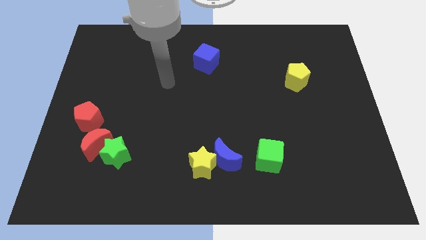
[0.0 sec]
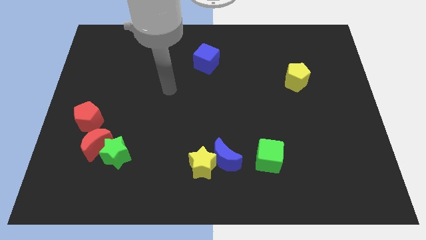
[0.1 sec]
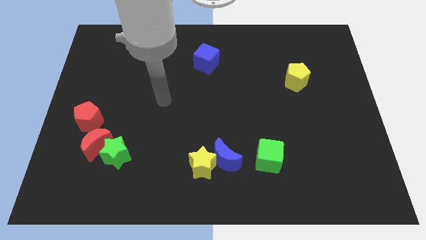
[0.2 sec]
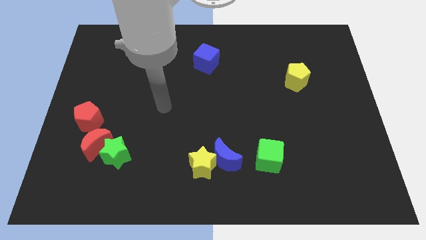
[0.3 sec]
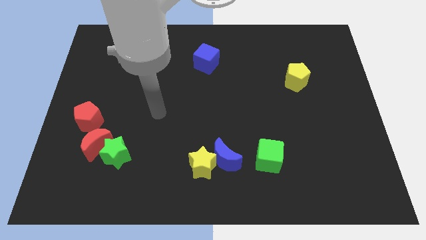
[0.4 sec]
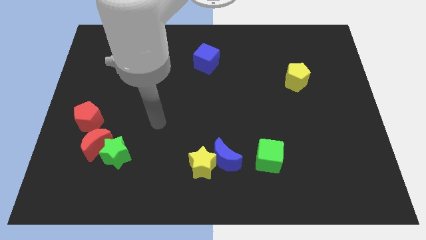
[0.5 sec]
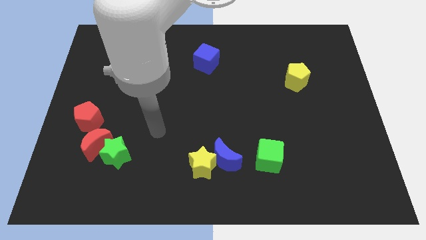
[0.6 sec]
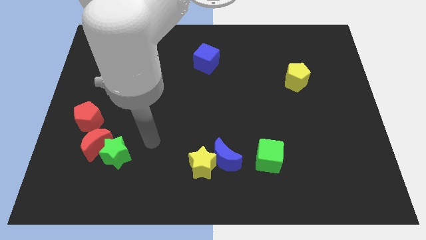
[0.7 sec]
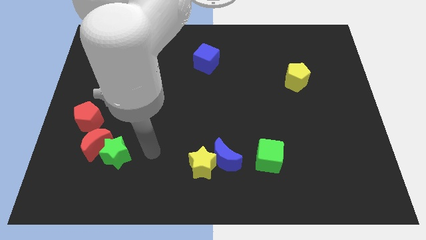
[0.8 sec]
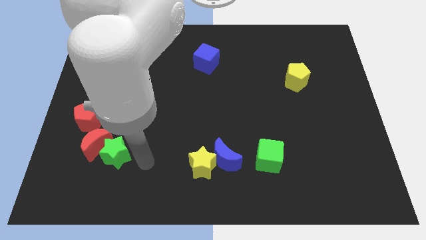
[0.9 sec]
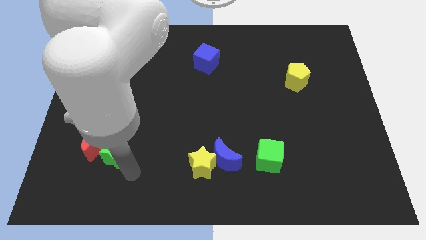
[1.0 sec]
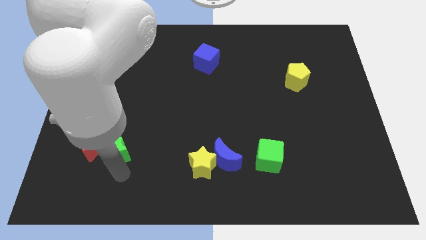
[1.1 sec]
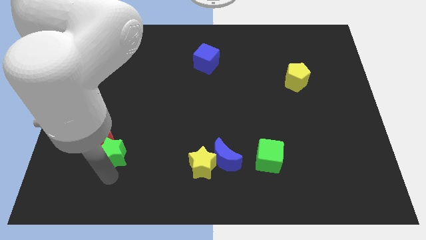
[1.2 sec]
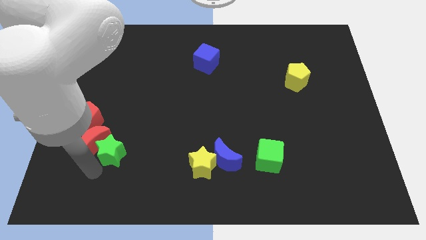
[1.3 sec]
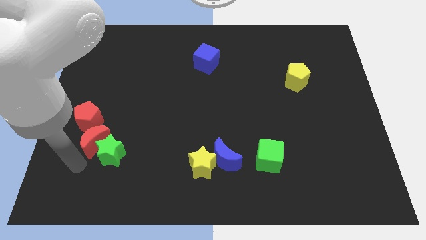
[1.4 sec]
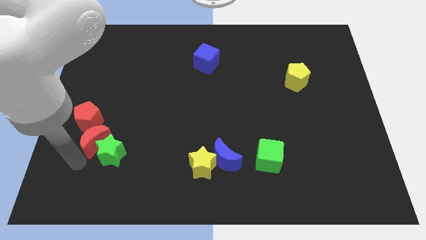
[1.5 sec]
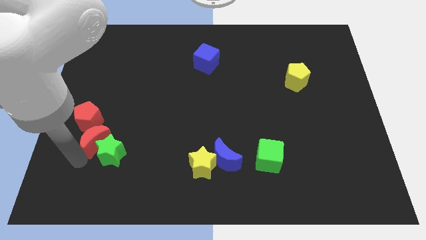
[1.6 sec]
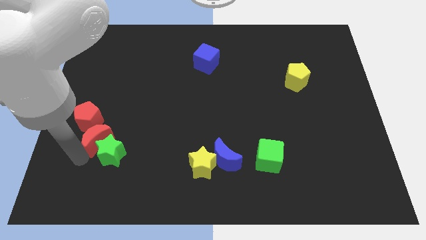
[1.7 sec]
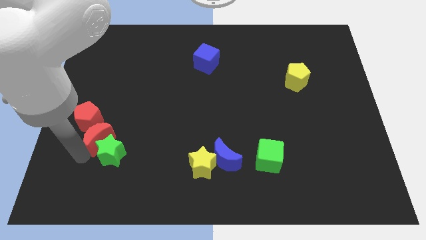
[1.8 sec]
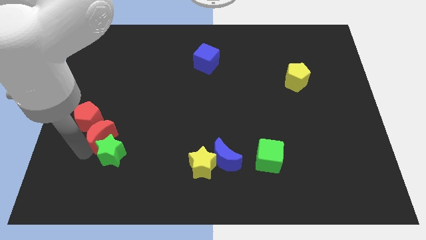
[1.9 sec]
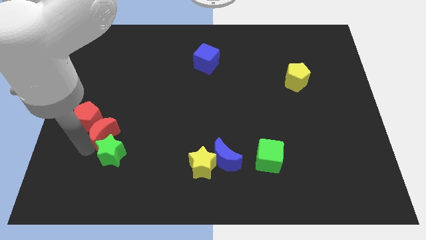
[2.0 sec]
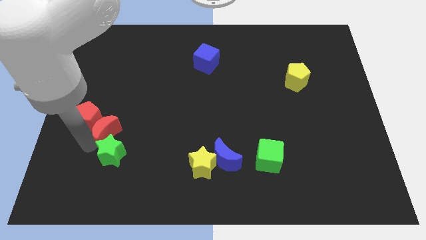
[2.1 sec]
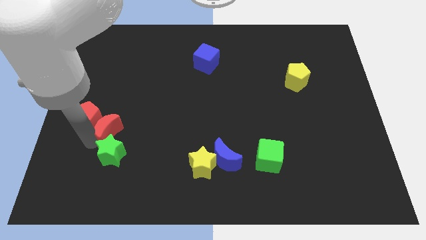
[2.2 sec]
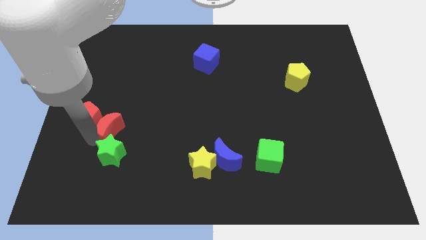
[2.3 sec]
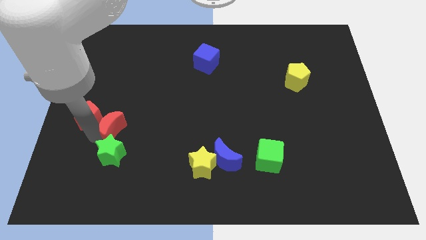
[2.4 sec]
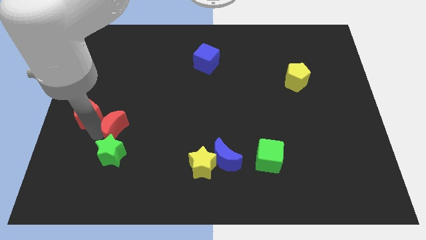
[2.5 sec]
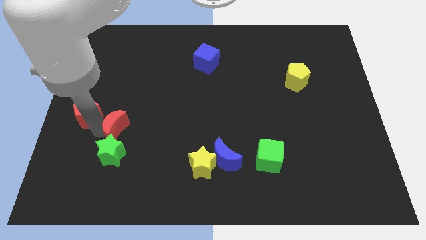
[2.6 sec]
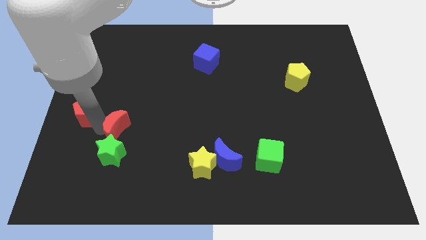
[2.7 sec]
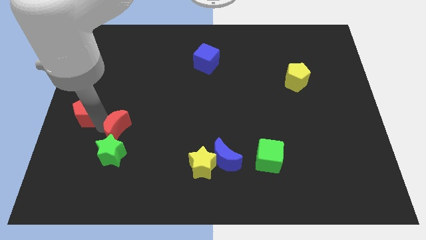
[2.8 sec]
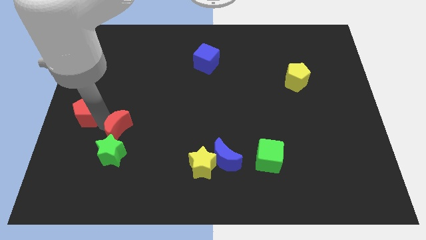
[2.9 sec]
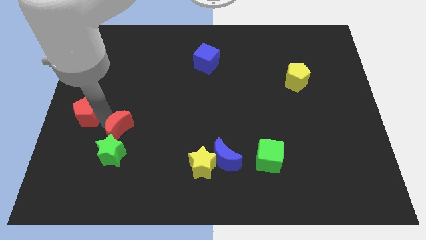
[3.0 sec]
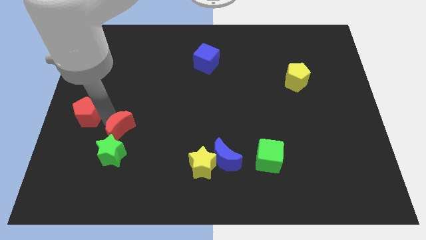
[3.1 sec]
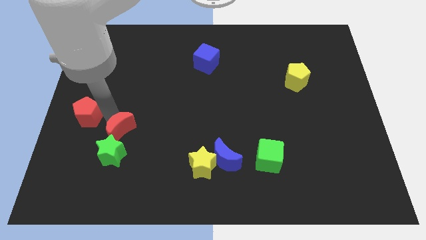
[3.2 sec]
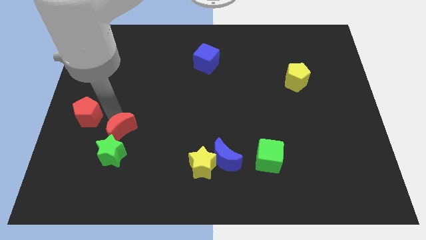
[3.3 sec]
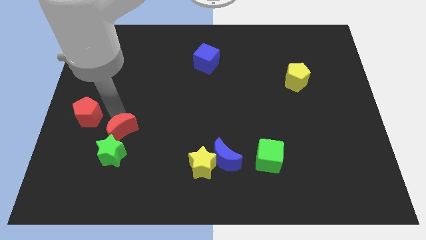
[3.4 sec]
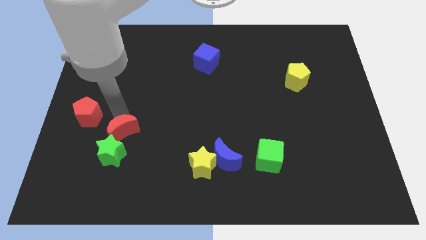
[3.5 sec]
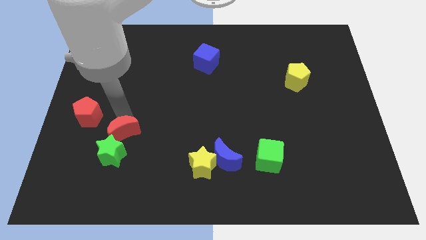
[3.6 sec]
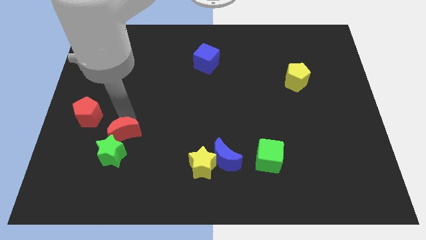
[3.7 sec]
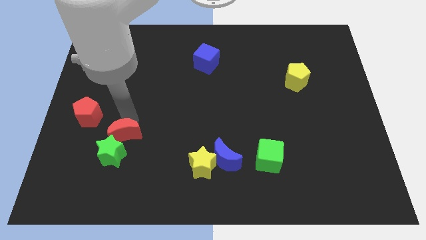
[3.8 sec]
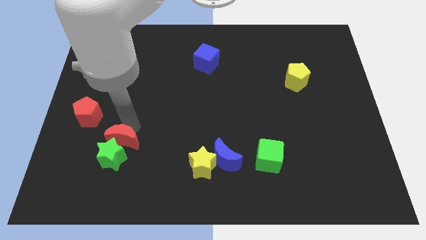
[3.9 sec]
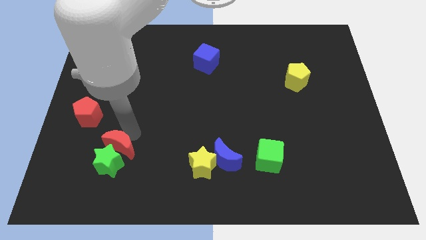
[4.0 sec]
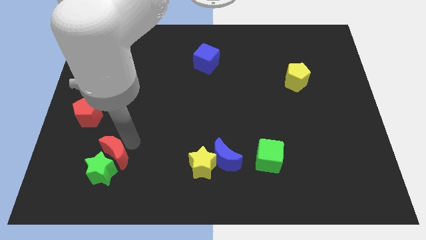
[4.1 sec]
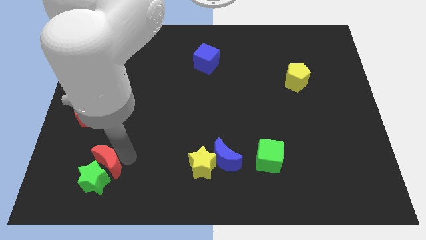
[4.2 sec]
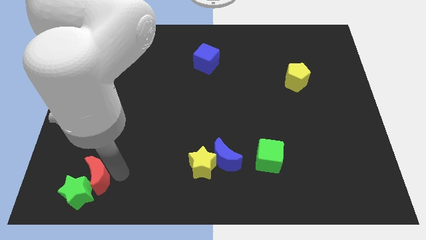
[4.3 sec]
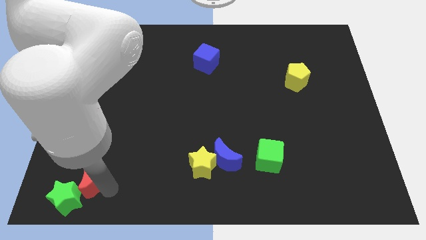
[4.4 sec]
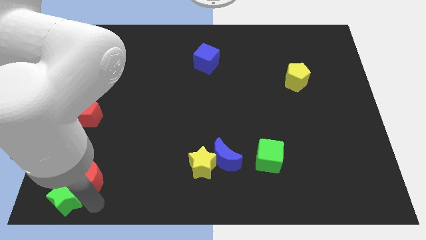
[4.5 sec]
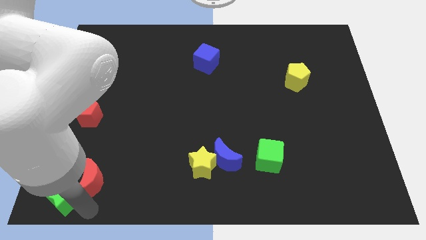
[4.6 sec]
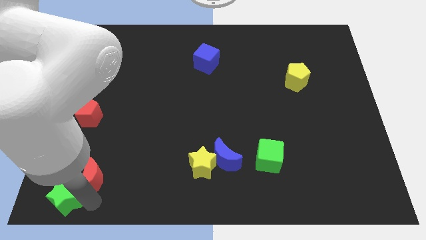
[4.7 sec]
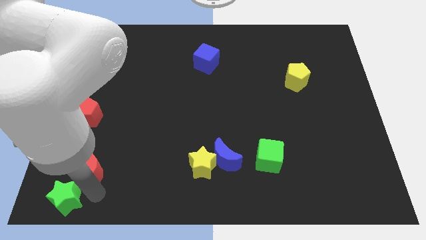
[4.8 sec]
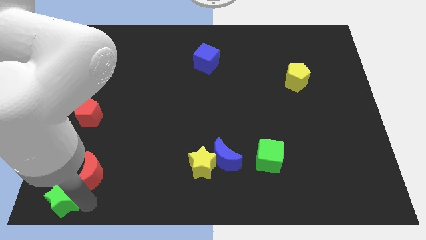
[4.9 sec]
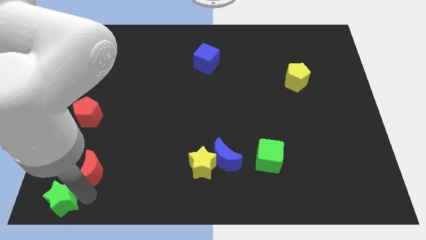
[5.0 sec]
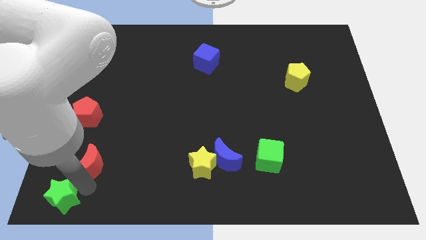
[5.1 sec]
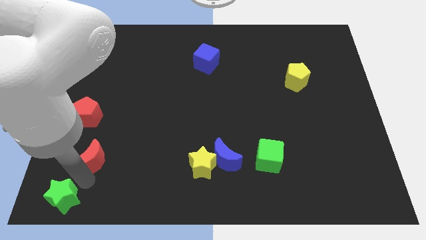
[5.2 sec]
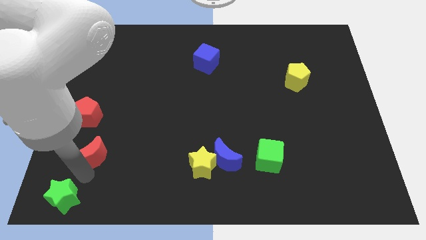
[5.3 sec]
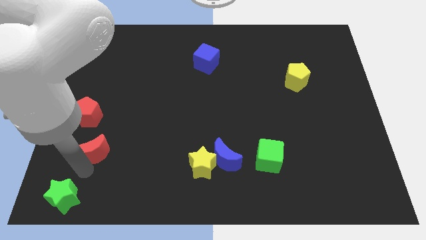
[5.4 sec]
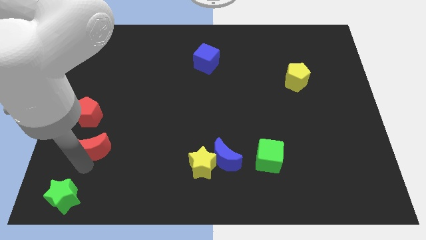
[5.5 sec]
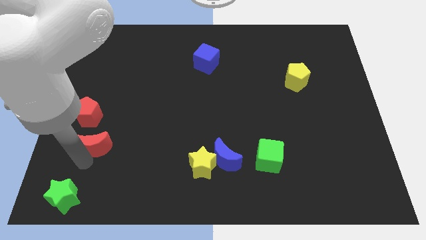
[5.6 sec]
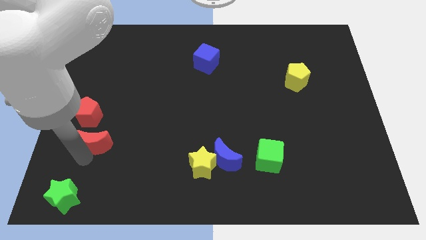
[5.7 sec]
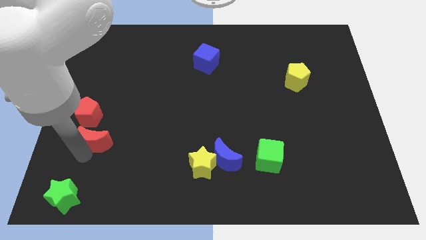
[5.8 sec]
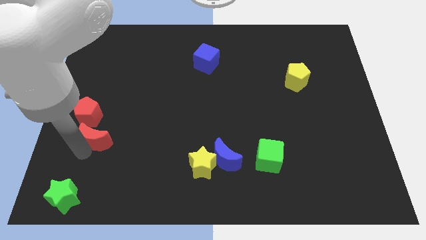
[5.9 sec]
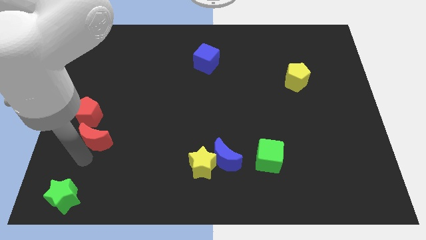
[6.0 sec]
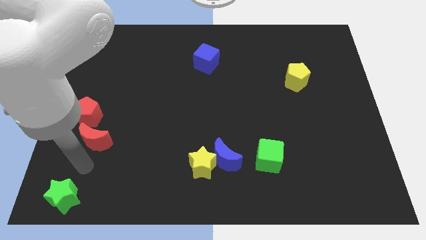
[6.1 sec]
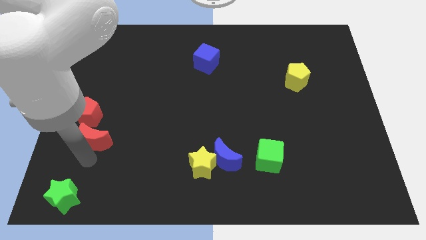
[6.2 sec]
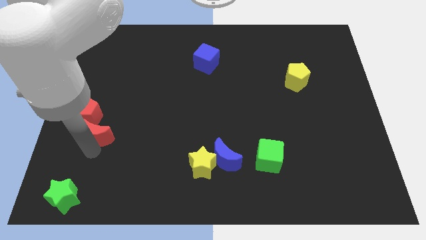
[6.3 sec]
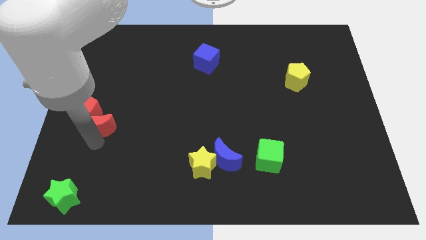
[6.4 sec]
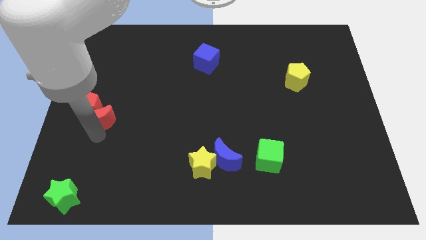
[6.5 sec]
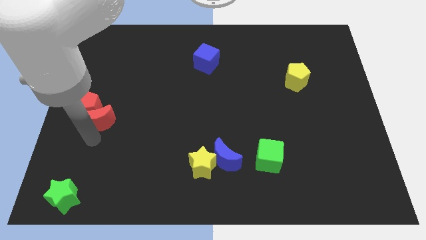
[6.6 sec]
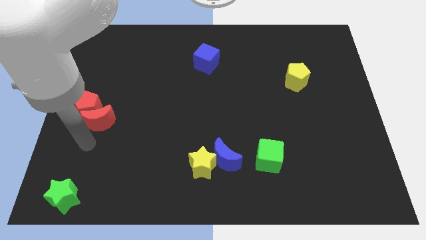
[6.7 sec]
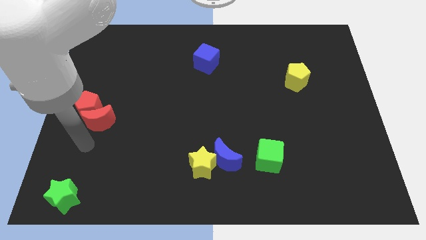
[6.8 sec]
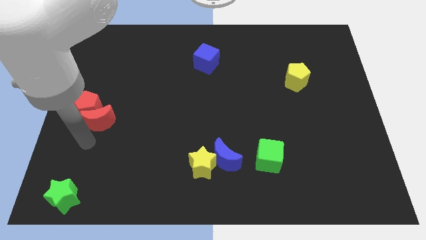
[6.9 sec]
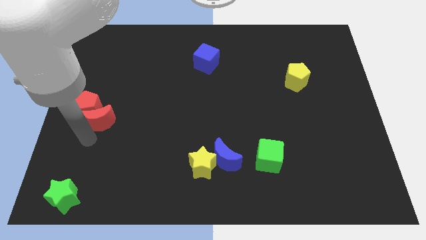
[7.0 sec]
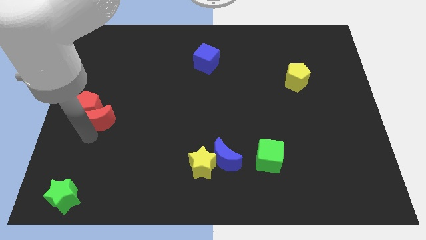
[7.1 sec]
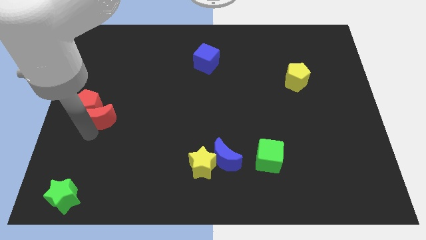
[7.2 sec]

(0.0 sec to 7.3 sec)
move the red moon a bit upwards

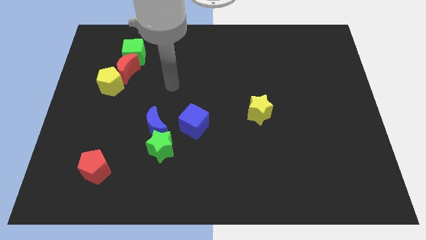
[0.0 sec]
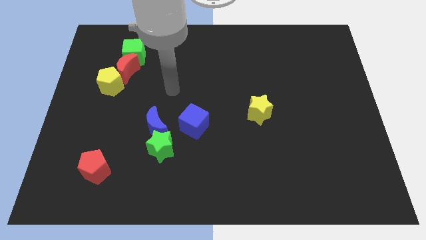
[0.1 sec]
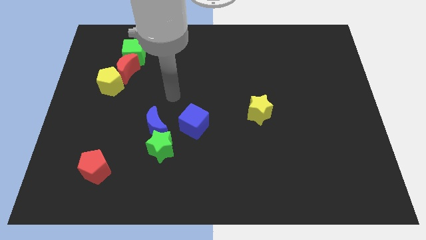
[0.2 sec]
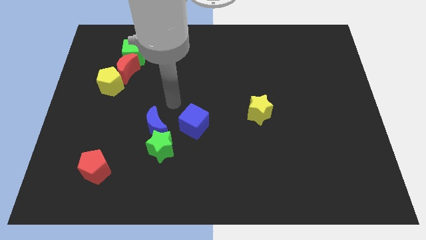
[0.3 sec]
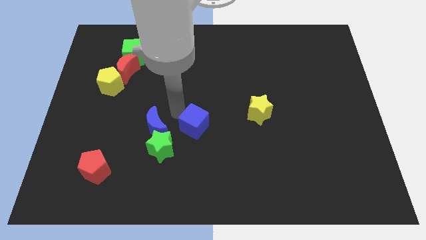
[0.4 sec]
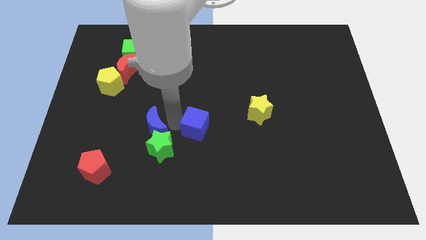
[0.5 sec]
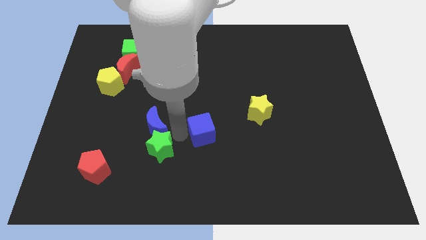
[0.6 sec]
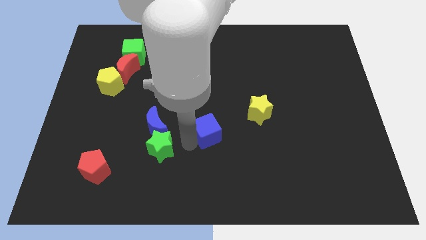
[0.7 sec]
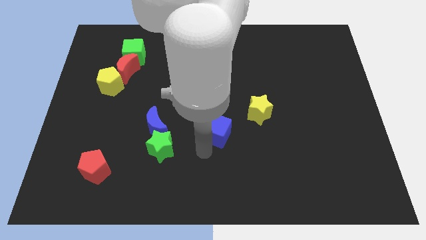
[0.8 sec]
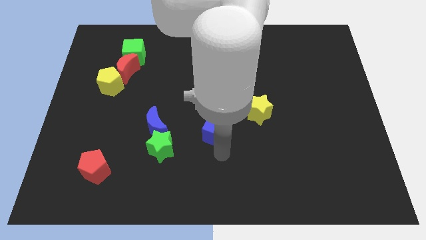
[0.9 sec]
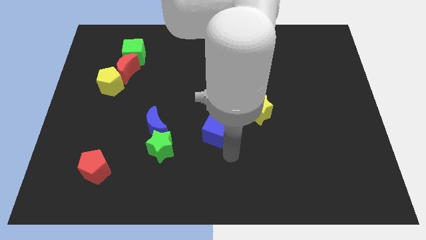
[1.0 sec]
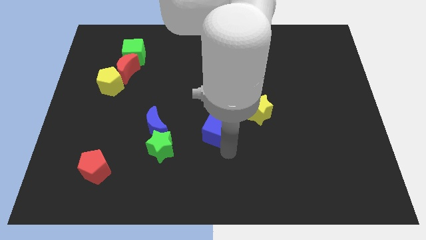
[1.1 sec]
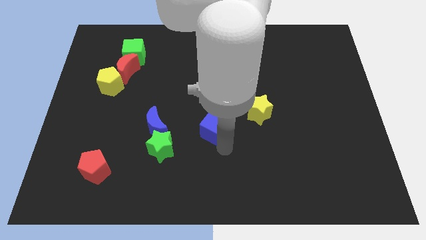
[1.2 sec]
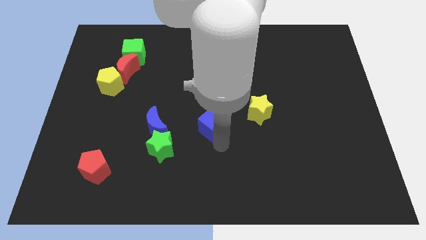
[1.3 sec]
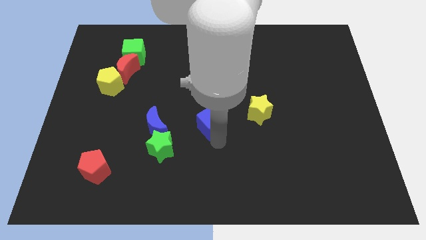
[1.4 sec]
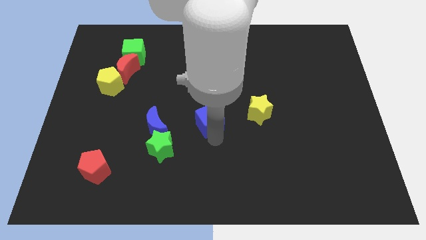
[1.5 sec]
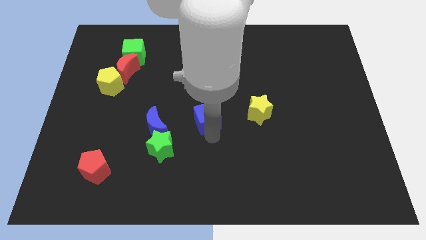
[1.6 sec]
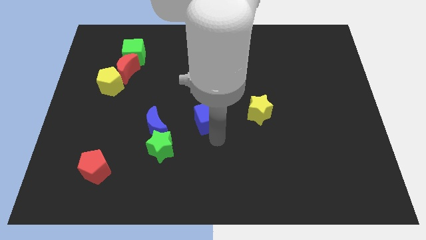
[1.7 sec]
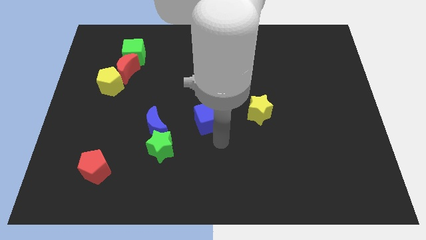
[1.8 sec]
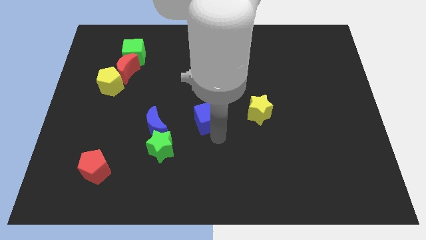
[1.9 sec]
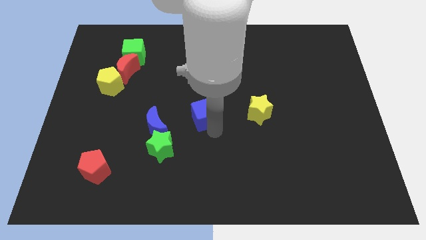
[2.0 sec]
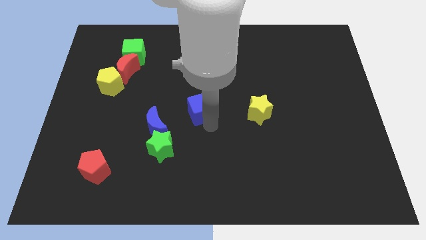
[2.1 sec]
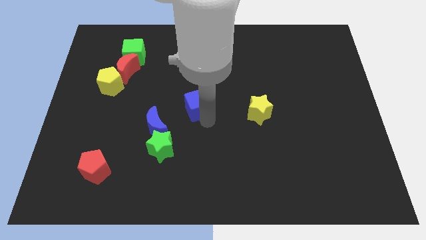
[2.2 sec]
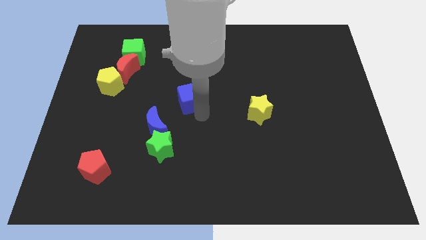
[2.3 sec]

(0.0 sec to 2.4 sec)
move the blue cube upwards a little
